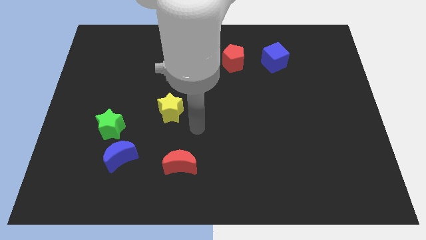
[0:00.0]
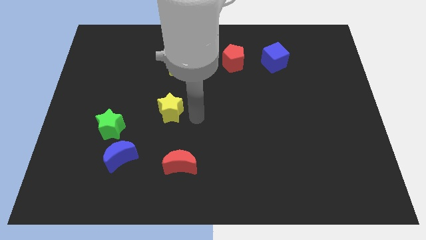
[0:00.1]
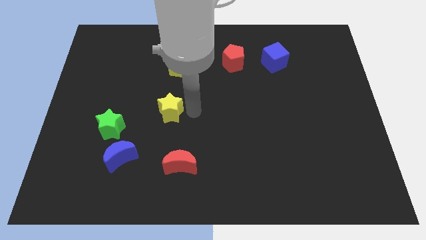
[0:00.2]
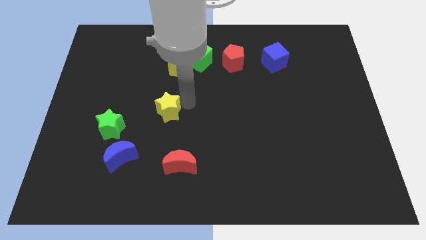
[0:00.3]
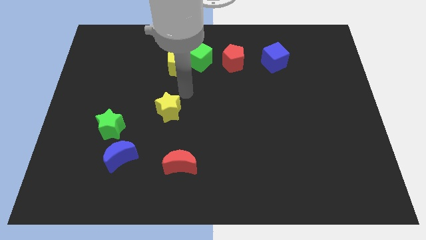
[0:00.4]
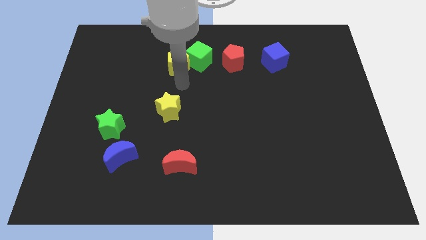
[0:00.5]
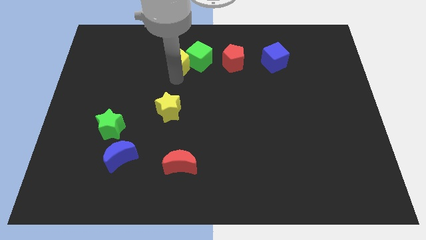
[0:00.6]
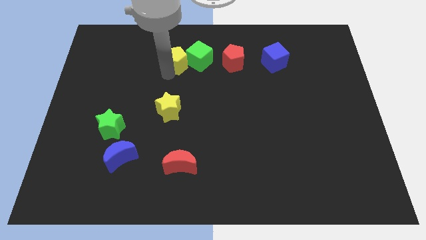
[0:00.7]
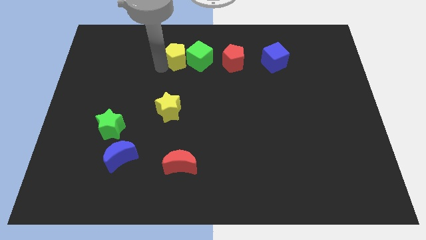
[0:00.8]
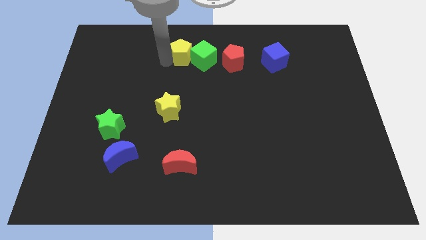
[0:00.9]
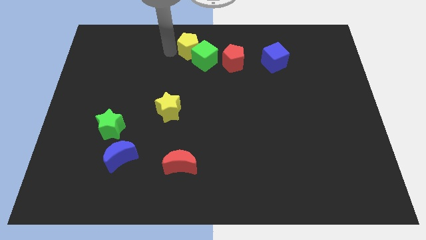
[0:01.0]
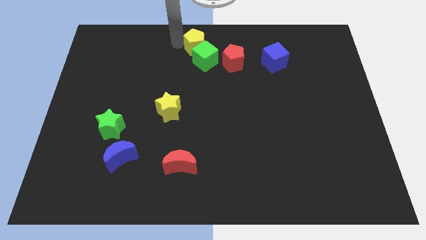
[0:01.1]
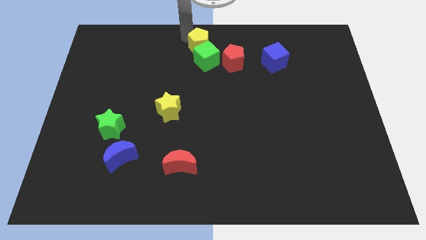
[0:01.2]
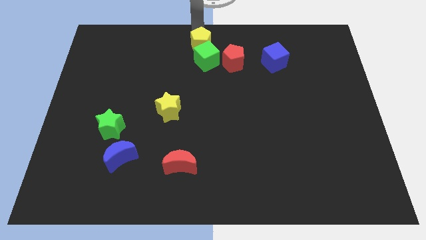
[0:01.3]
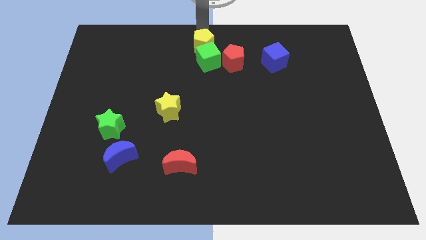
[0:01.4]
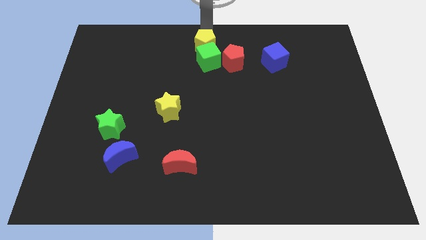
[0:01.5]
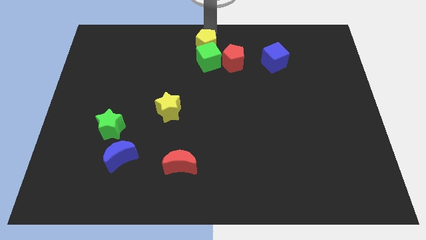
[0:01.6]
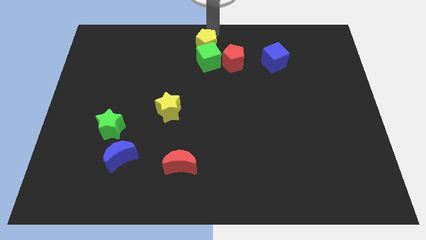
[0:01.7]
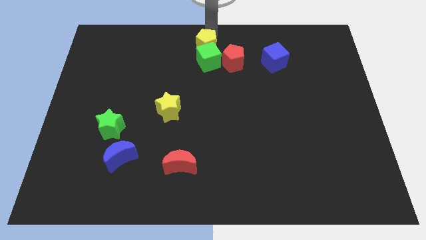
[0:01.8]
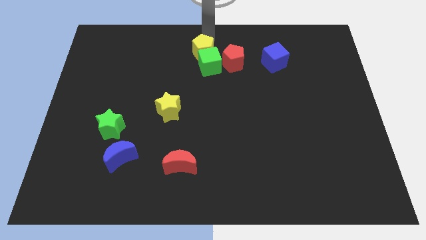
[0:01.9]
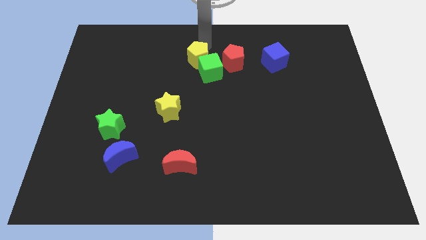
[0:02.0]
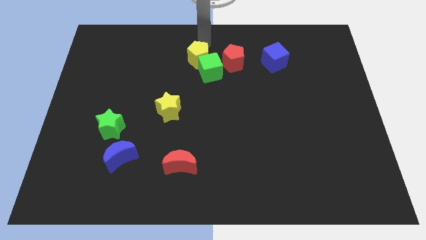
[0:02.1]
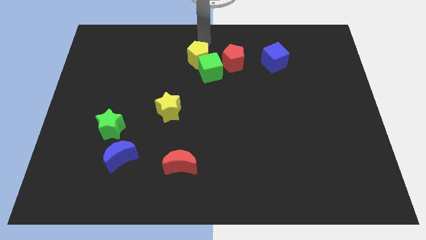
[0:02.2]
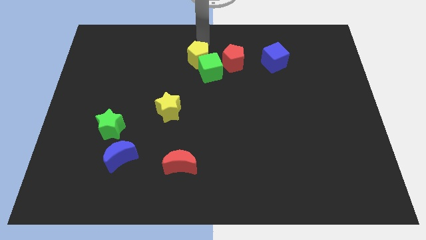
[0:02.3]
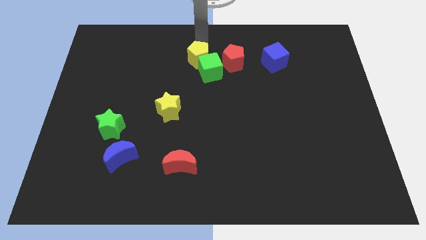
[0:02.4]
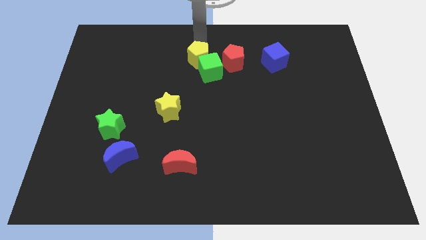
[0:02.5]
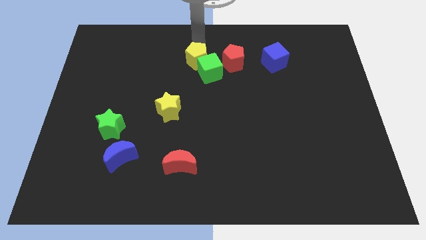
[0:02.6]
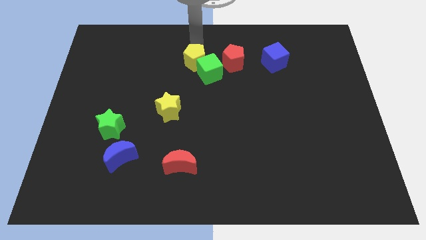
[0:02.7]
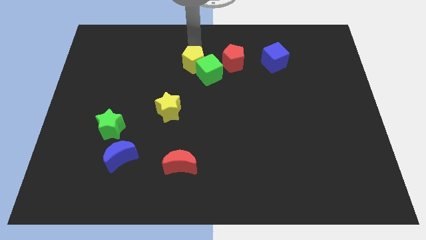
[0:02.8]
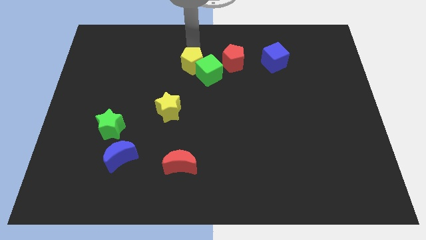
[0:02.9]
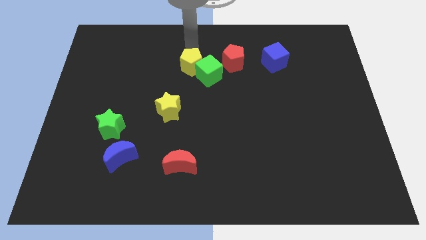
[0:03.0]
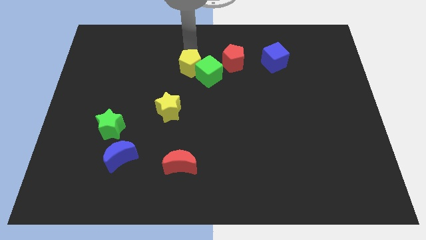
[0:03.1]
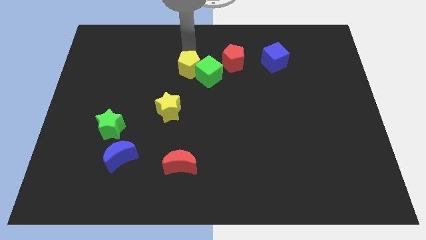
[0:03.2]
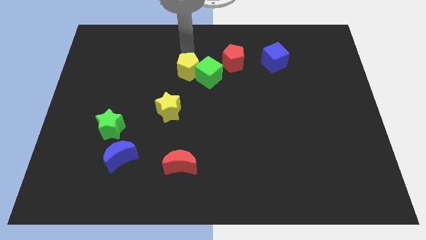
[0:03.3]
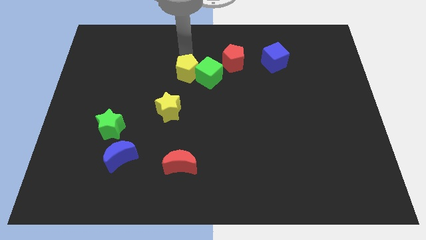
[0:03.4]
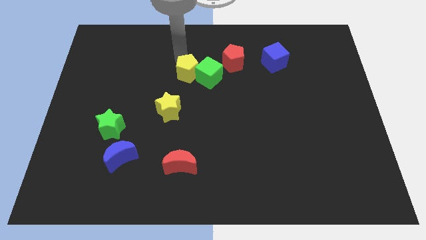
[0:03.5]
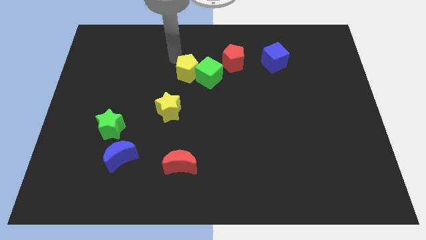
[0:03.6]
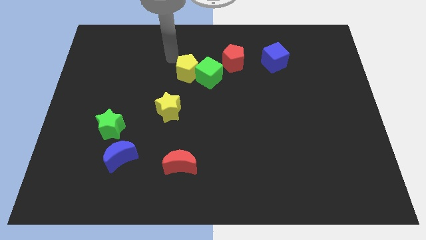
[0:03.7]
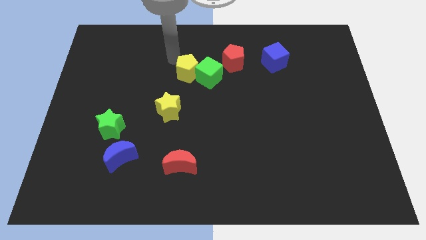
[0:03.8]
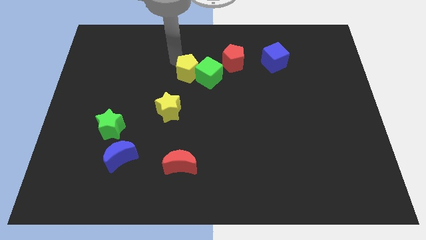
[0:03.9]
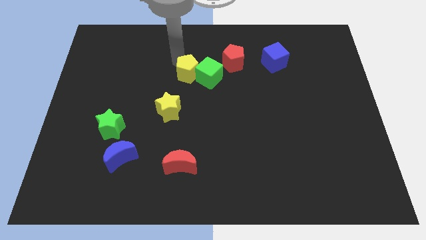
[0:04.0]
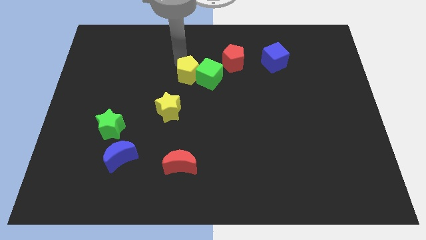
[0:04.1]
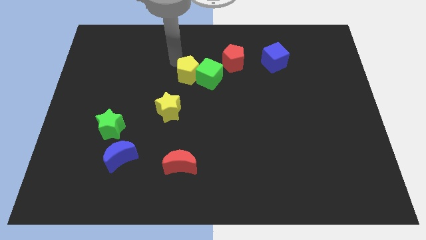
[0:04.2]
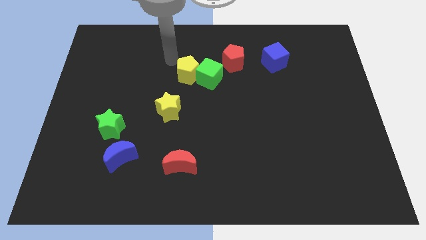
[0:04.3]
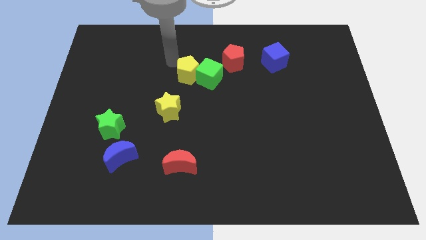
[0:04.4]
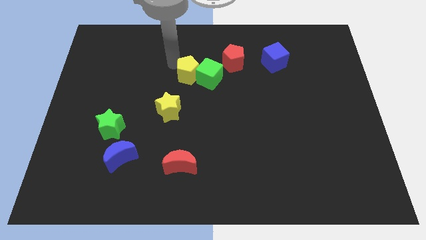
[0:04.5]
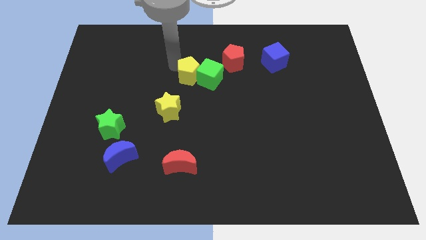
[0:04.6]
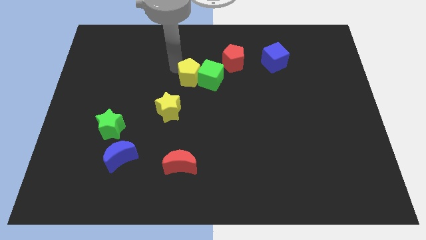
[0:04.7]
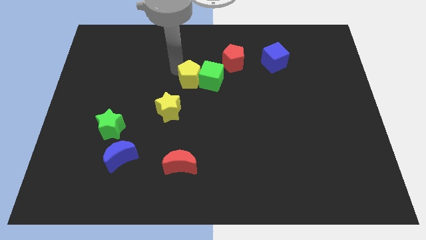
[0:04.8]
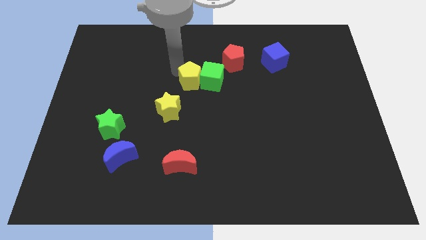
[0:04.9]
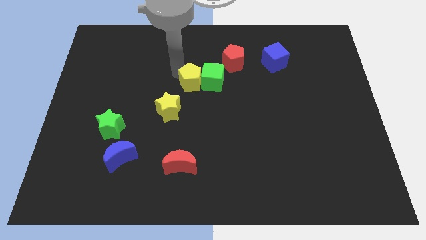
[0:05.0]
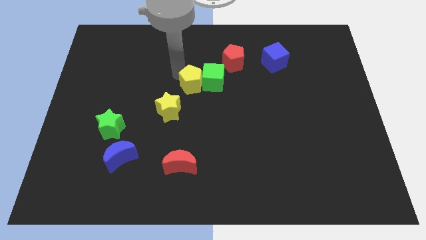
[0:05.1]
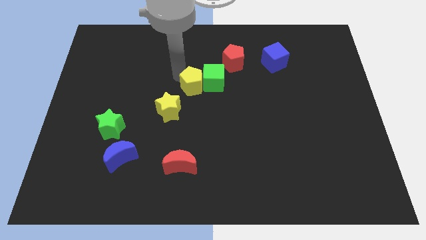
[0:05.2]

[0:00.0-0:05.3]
slightly move the yellow pentagon downwards and then right

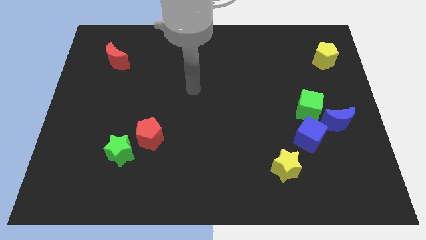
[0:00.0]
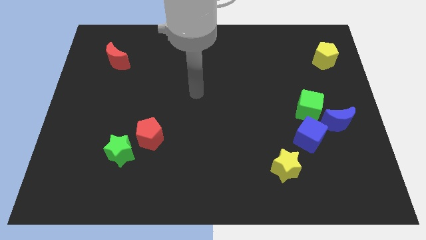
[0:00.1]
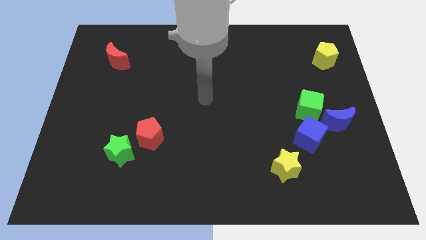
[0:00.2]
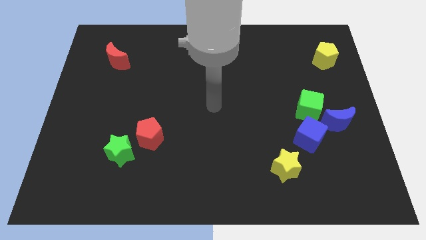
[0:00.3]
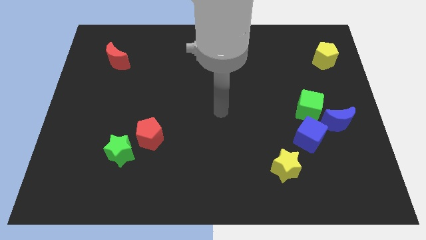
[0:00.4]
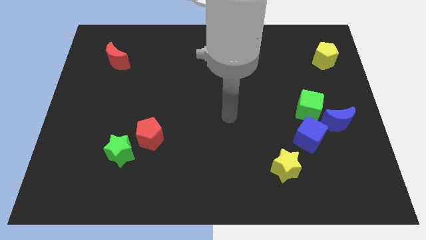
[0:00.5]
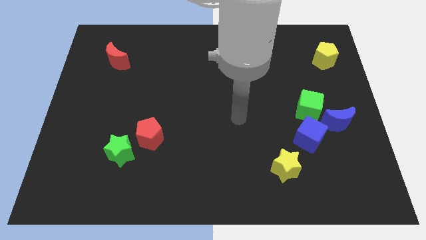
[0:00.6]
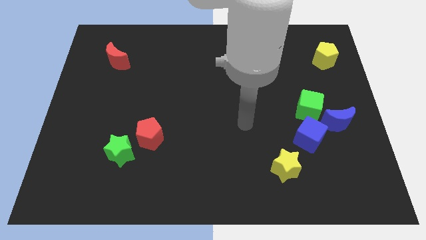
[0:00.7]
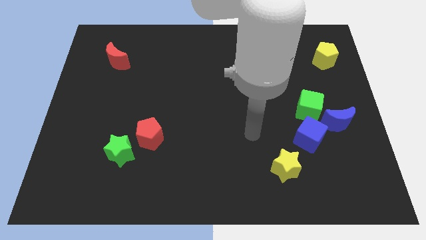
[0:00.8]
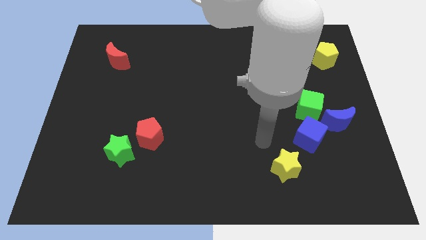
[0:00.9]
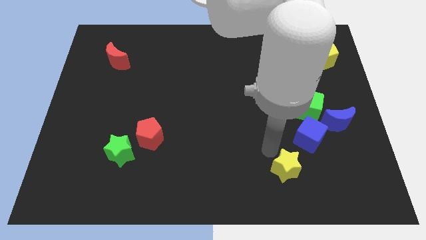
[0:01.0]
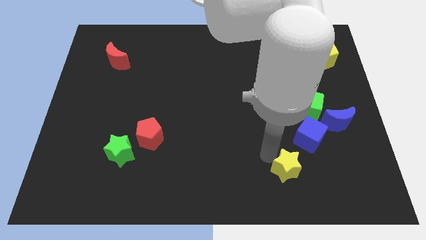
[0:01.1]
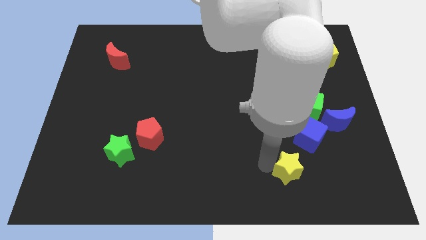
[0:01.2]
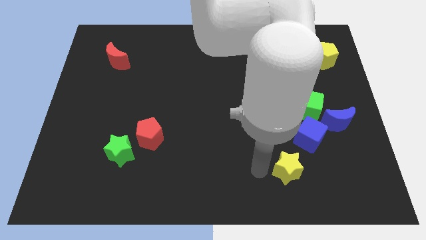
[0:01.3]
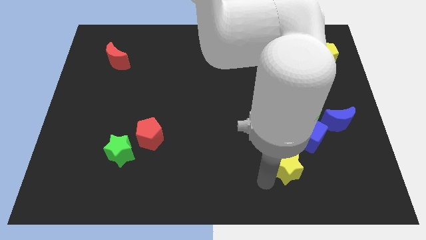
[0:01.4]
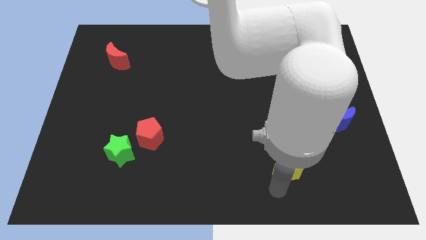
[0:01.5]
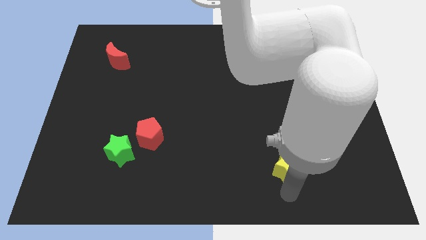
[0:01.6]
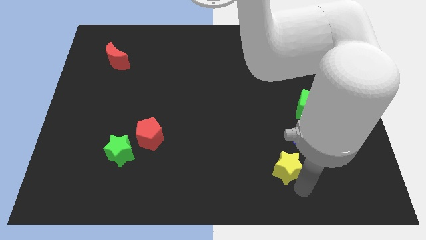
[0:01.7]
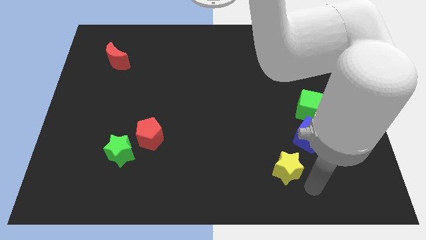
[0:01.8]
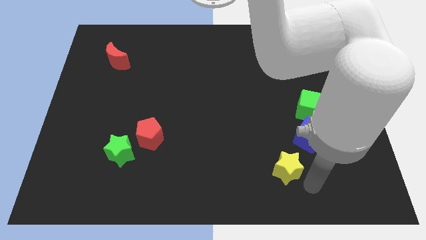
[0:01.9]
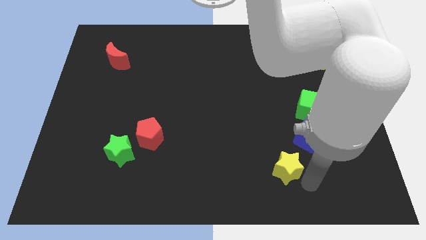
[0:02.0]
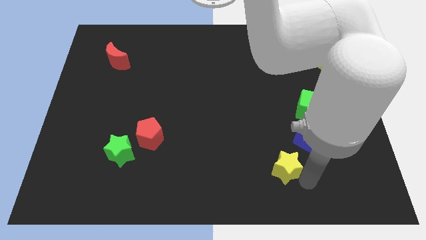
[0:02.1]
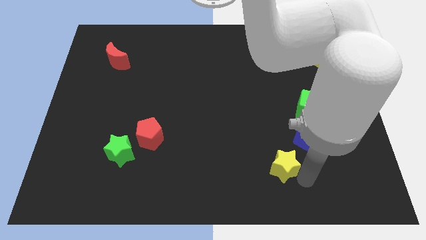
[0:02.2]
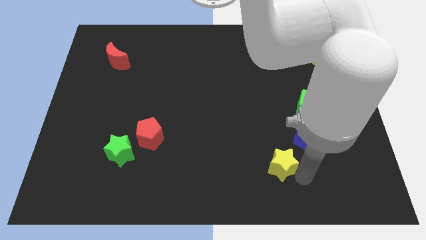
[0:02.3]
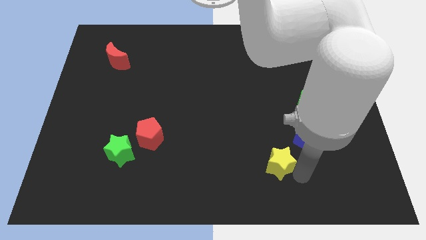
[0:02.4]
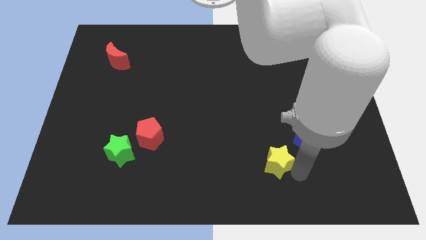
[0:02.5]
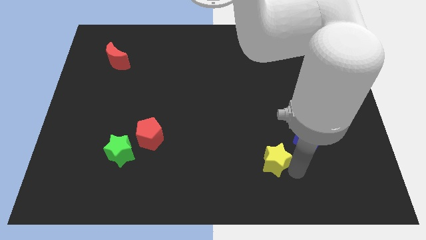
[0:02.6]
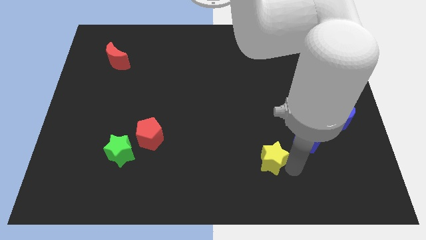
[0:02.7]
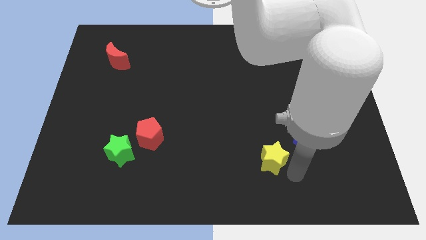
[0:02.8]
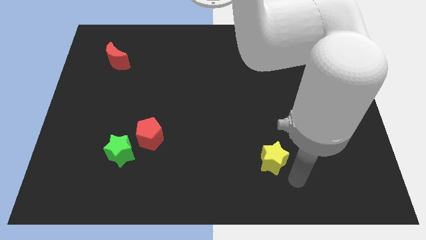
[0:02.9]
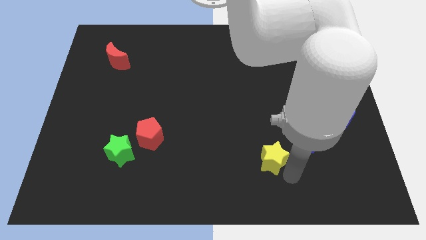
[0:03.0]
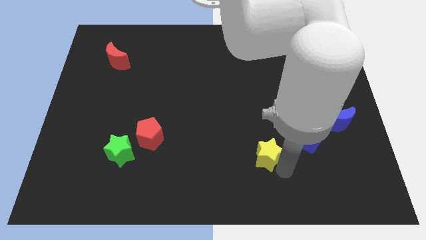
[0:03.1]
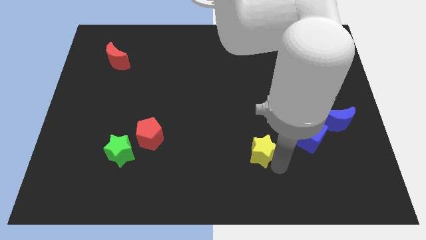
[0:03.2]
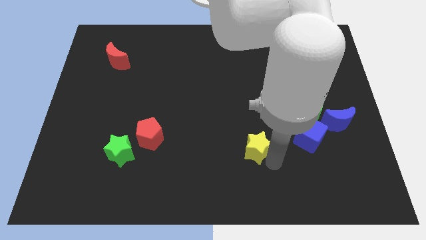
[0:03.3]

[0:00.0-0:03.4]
slightly slide the yellow star up and left diagonally
